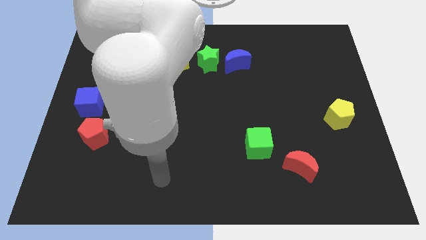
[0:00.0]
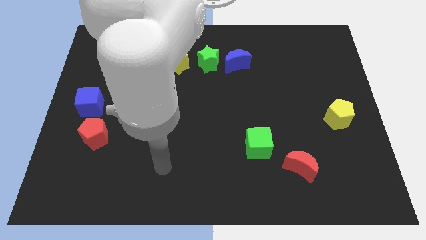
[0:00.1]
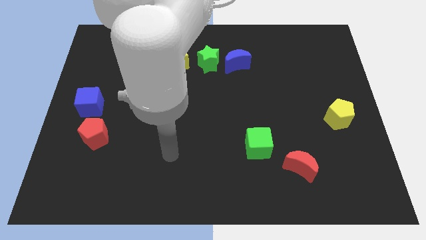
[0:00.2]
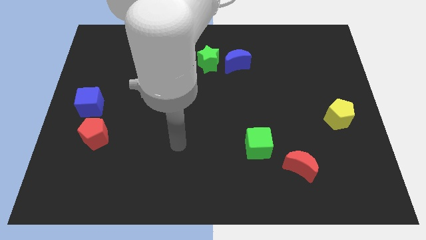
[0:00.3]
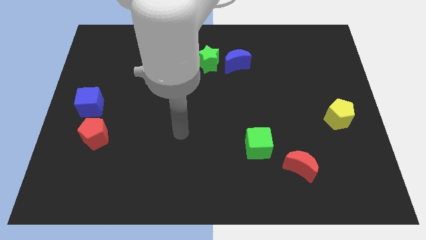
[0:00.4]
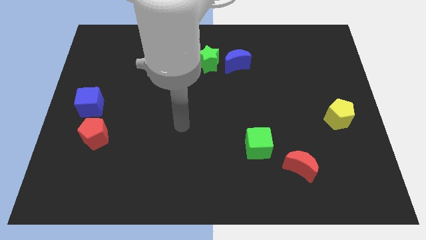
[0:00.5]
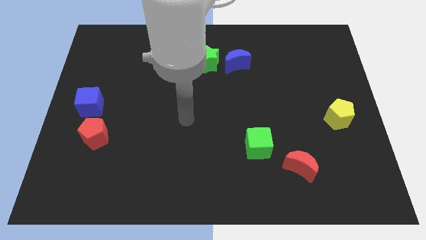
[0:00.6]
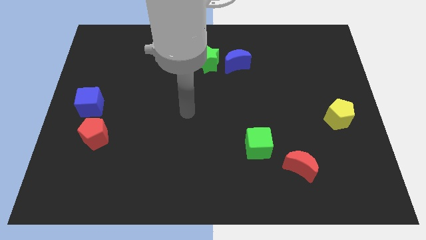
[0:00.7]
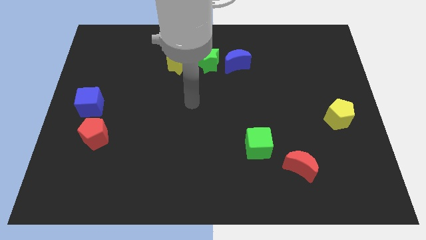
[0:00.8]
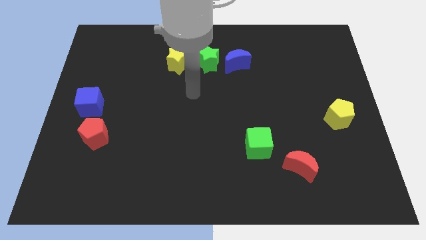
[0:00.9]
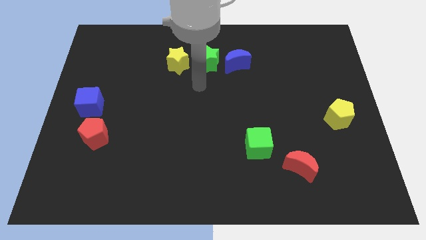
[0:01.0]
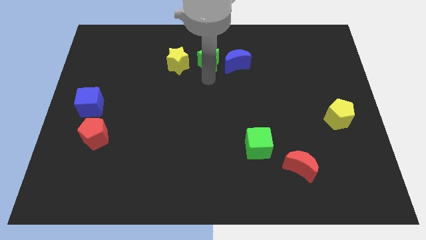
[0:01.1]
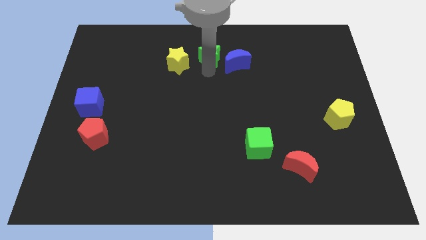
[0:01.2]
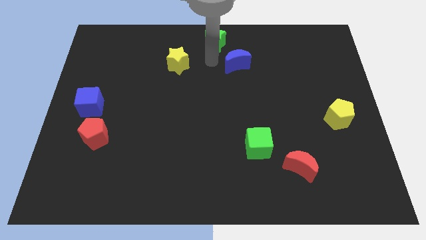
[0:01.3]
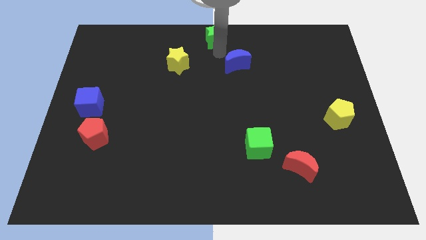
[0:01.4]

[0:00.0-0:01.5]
pull the blue moon apart from the green star

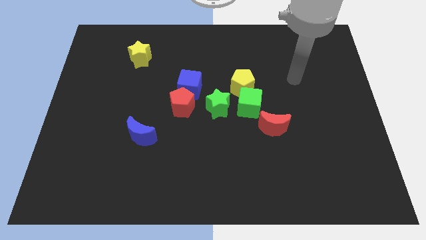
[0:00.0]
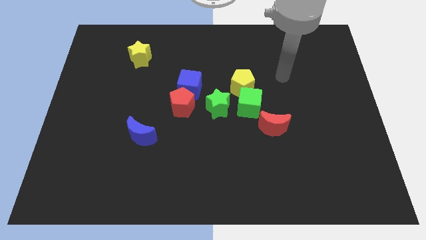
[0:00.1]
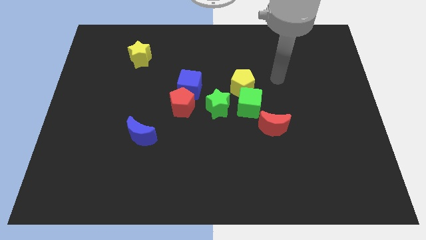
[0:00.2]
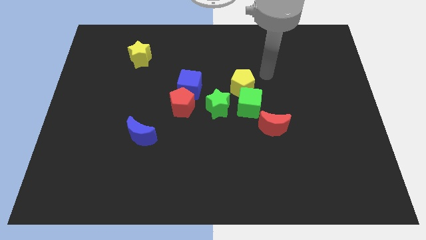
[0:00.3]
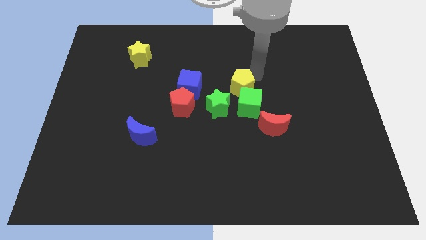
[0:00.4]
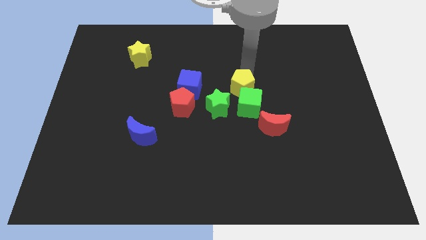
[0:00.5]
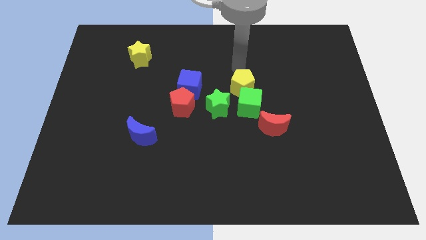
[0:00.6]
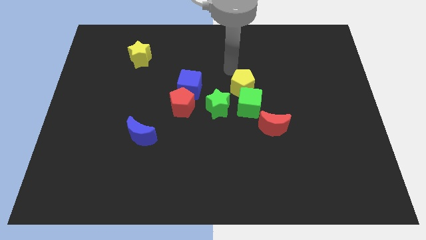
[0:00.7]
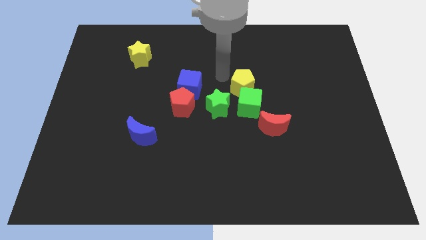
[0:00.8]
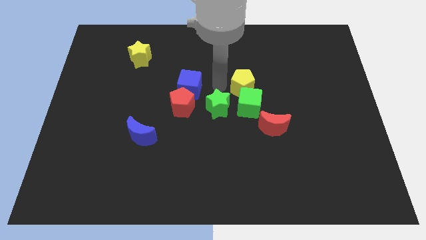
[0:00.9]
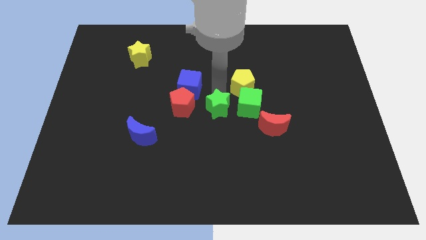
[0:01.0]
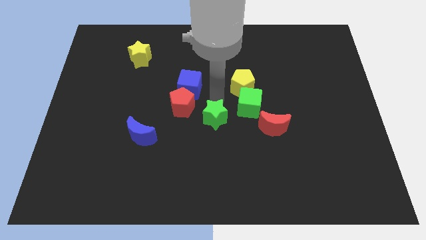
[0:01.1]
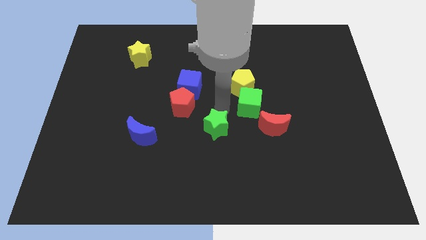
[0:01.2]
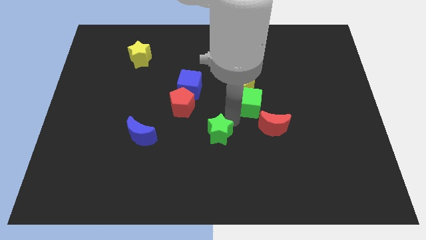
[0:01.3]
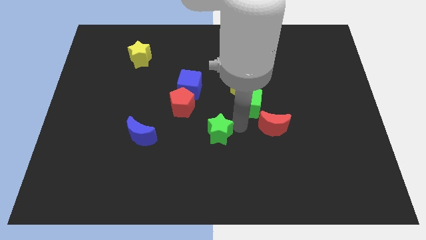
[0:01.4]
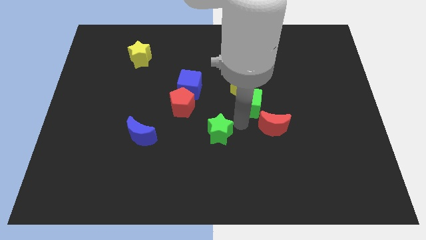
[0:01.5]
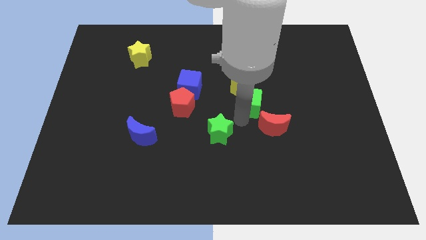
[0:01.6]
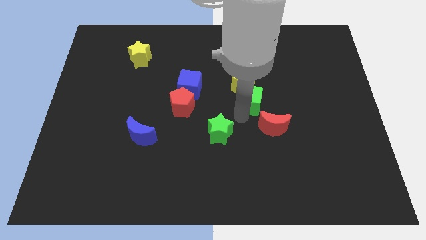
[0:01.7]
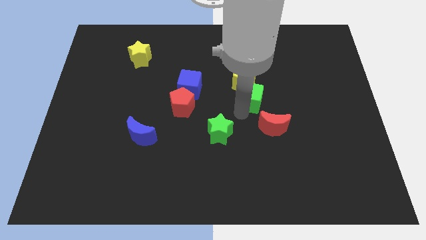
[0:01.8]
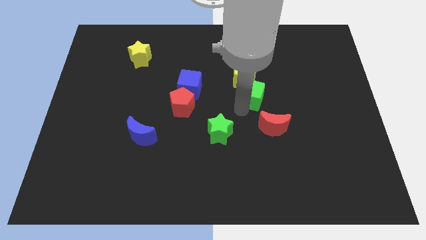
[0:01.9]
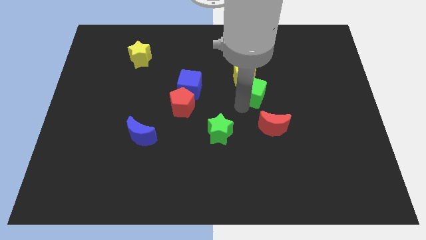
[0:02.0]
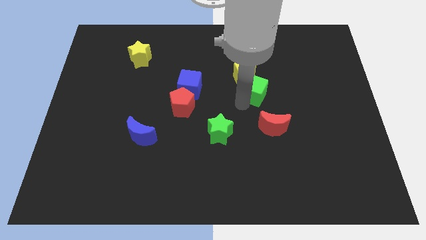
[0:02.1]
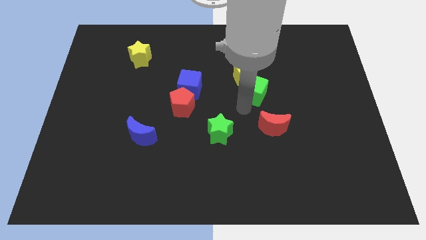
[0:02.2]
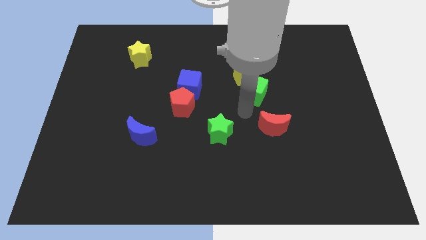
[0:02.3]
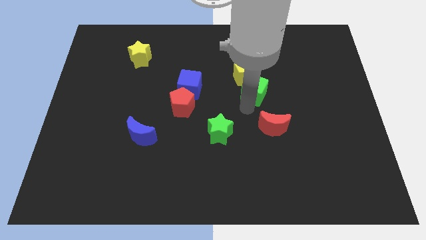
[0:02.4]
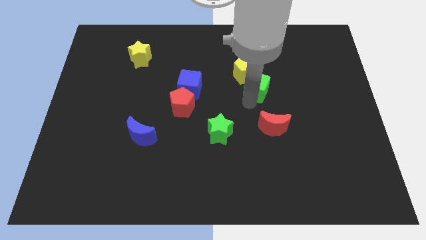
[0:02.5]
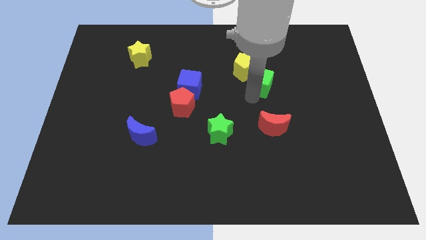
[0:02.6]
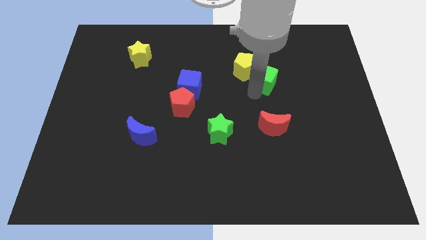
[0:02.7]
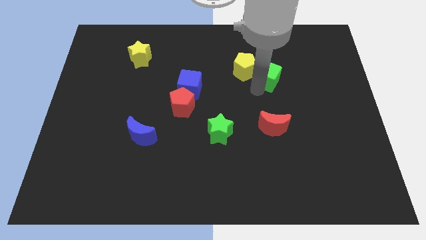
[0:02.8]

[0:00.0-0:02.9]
pull the green cube apart from the clump

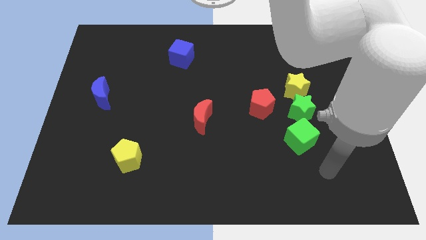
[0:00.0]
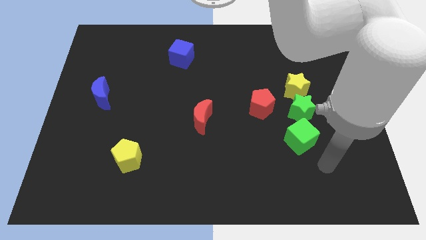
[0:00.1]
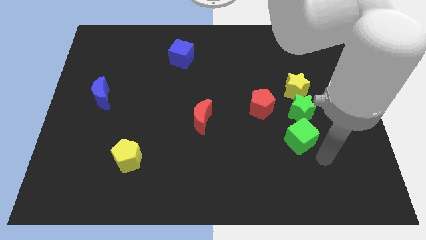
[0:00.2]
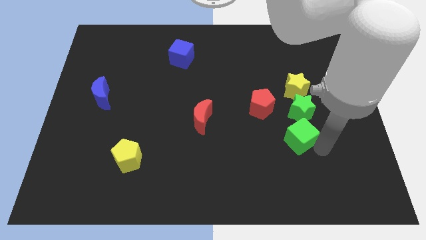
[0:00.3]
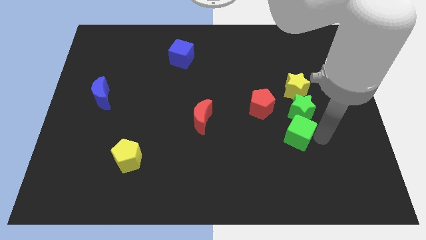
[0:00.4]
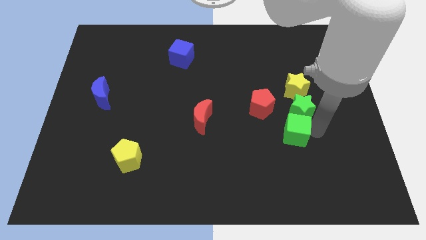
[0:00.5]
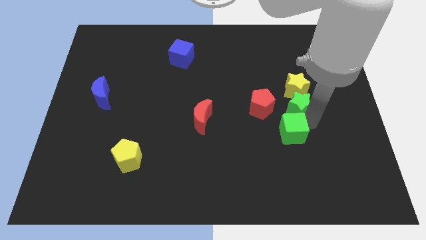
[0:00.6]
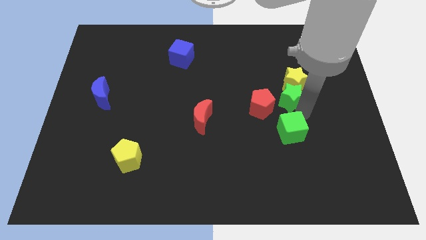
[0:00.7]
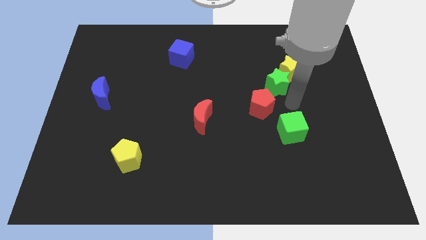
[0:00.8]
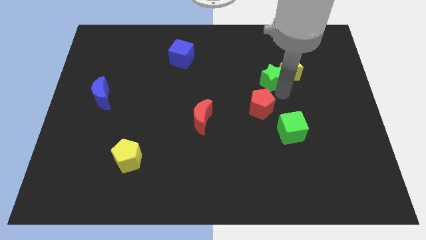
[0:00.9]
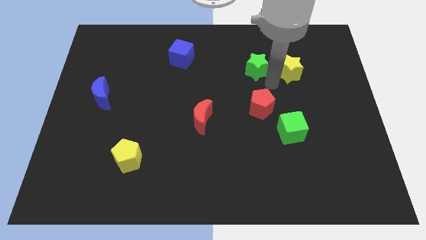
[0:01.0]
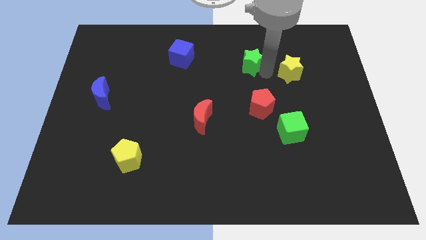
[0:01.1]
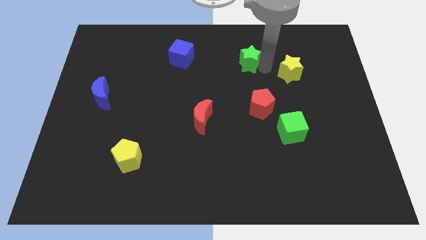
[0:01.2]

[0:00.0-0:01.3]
separate the yellow star from the green star

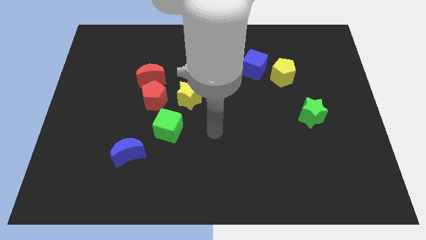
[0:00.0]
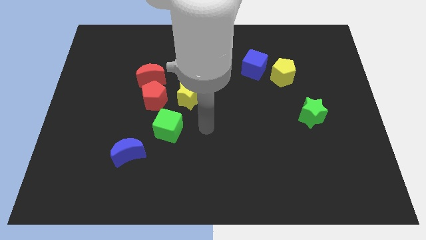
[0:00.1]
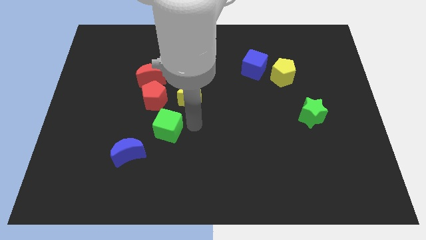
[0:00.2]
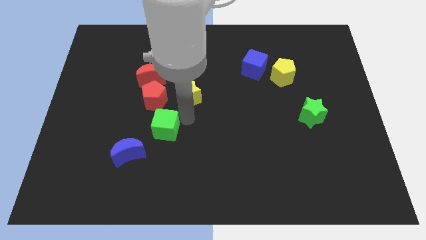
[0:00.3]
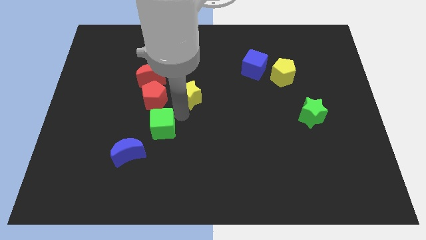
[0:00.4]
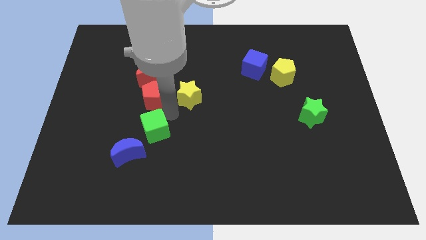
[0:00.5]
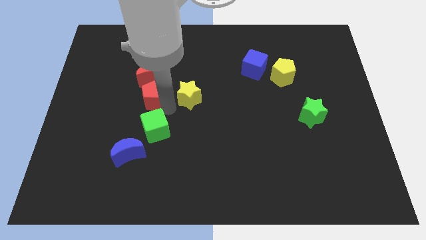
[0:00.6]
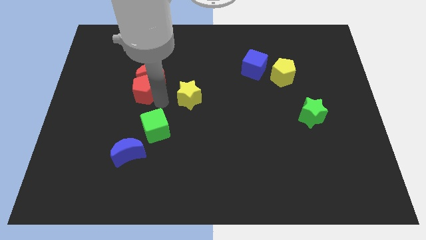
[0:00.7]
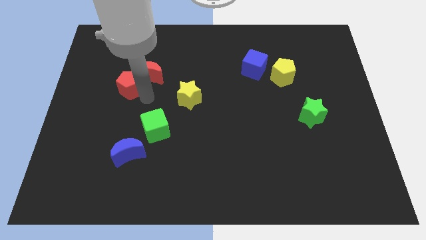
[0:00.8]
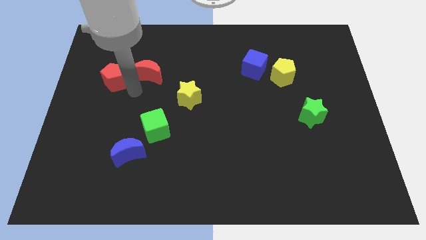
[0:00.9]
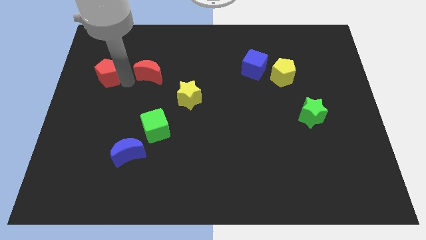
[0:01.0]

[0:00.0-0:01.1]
pull the red moon apart from the red pentagon

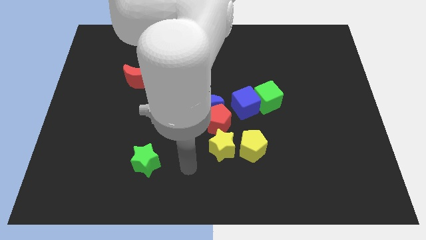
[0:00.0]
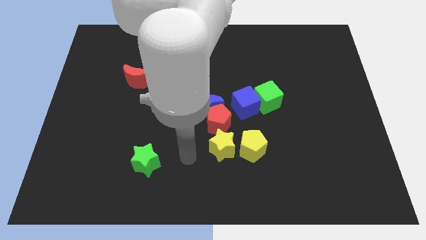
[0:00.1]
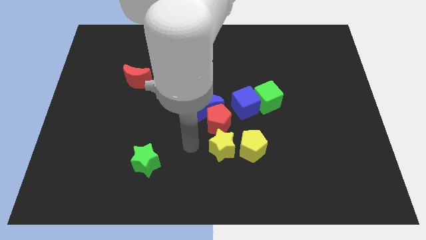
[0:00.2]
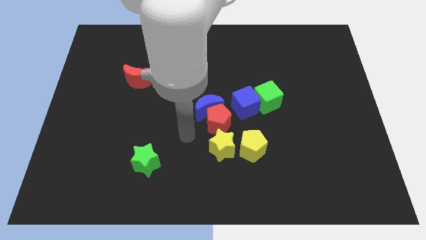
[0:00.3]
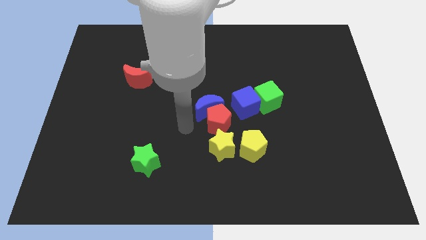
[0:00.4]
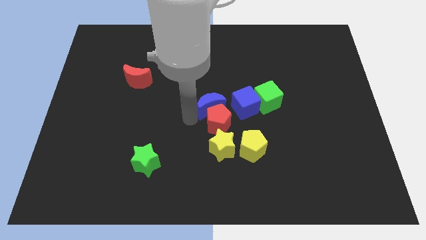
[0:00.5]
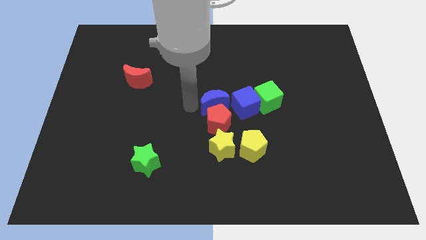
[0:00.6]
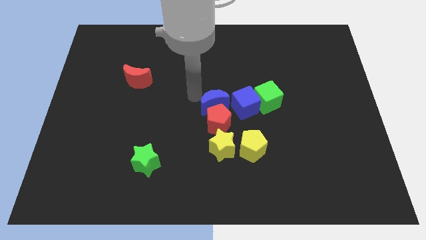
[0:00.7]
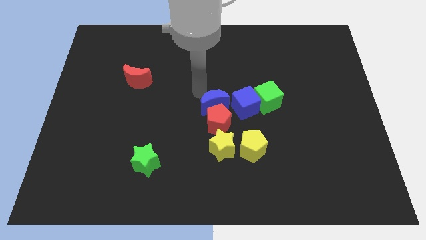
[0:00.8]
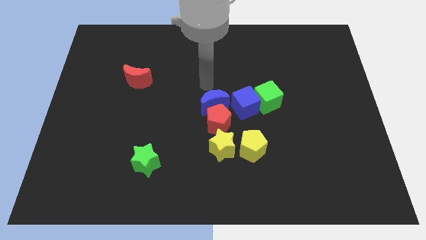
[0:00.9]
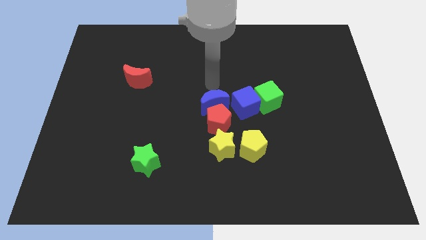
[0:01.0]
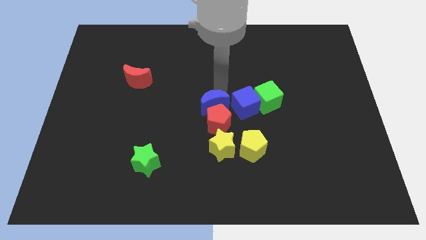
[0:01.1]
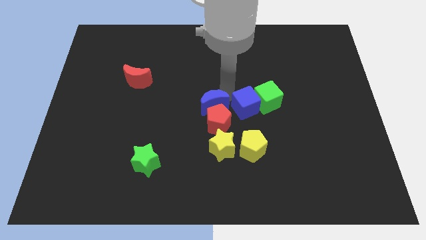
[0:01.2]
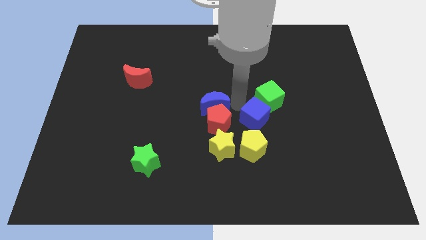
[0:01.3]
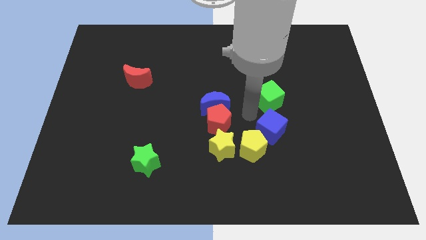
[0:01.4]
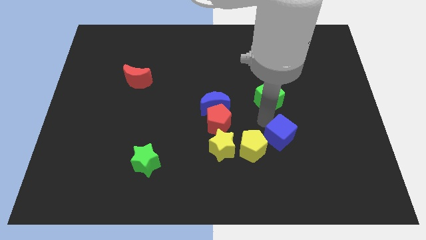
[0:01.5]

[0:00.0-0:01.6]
separate the green cube from the blue cube

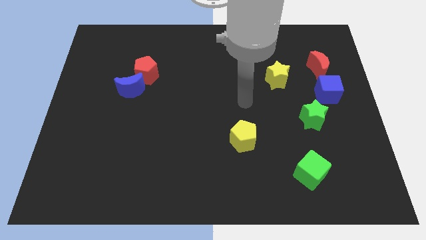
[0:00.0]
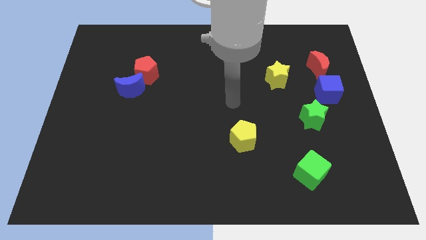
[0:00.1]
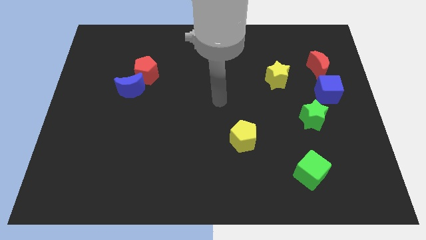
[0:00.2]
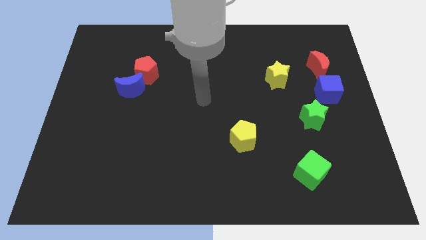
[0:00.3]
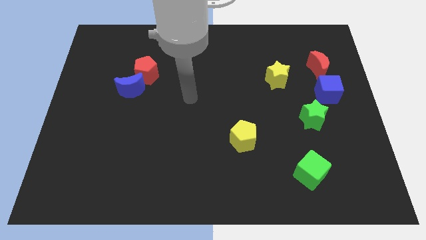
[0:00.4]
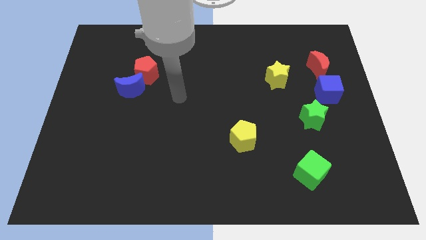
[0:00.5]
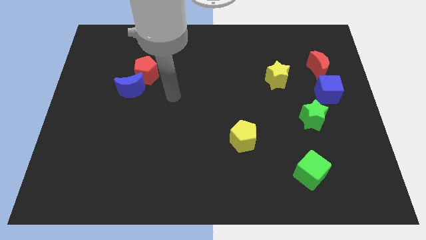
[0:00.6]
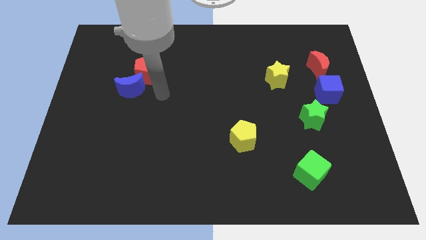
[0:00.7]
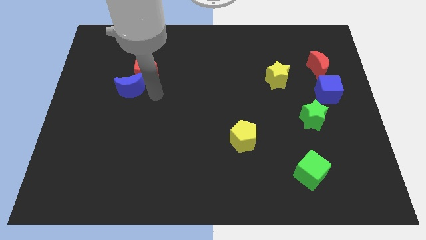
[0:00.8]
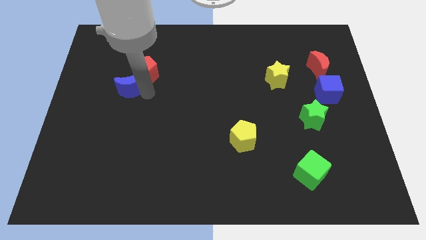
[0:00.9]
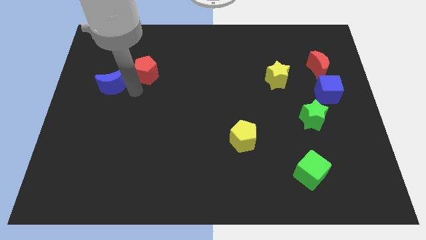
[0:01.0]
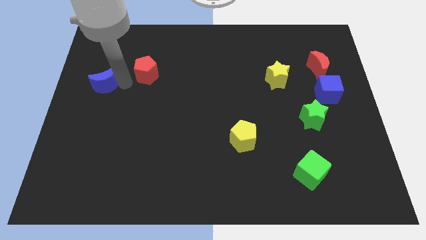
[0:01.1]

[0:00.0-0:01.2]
move the red pentagon away from the blue moon
